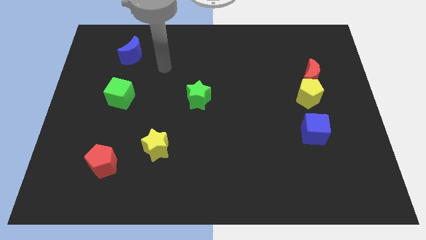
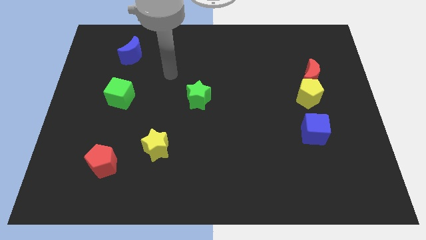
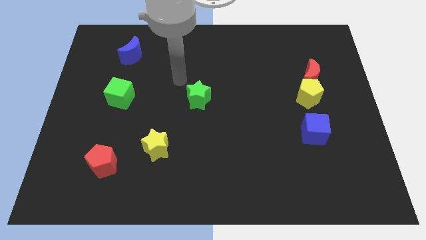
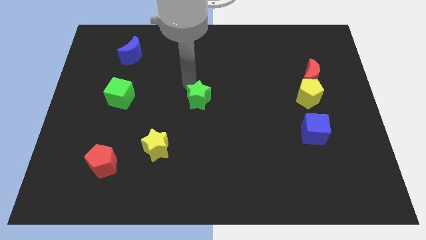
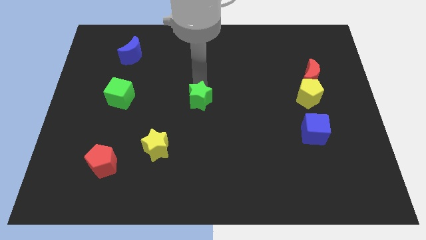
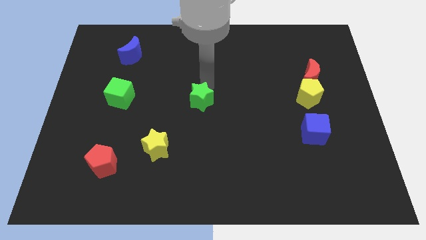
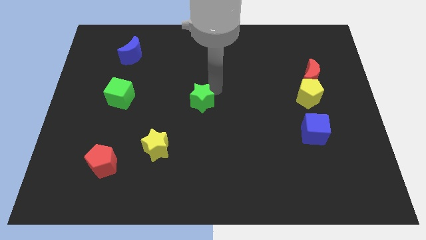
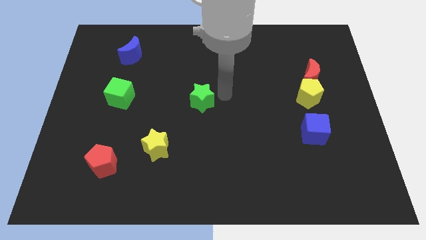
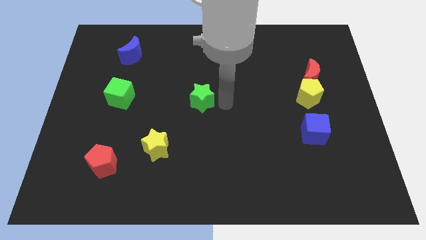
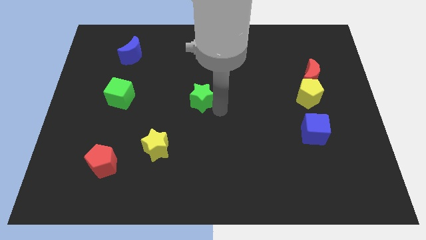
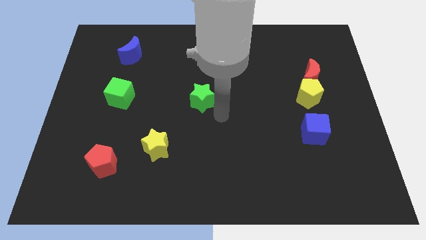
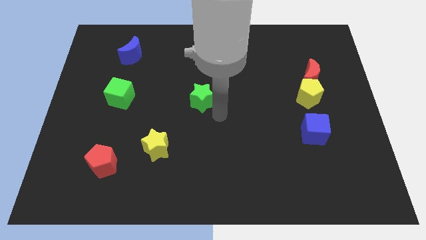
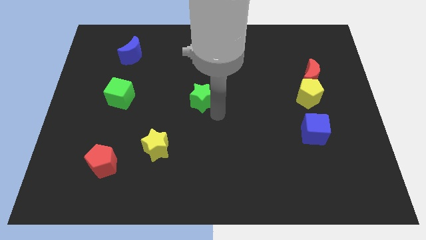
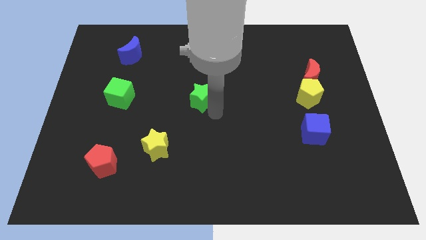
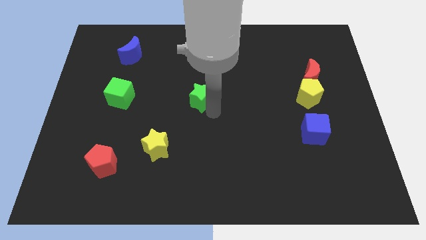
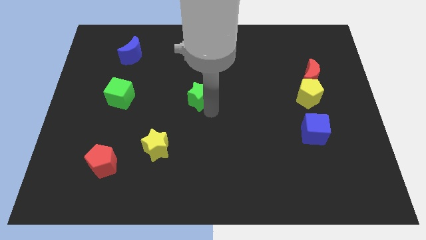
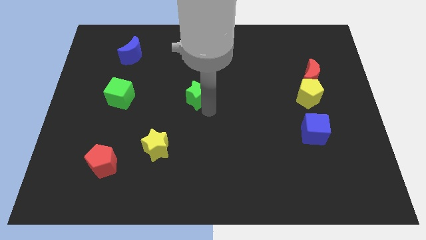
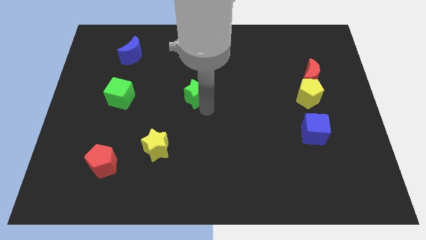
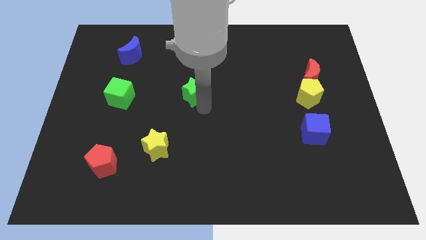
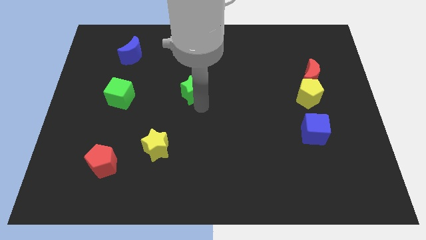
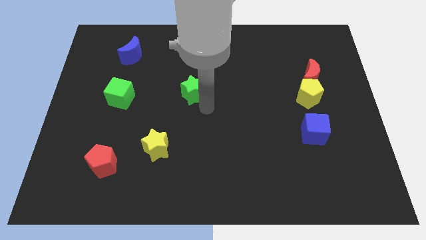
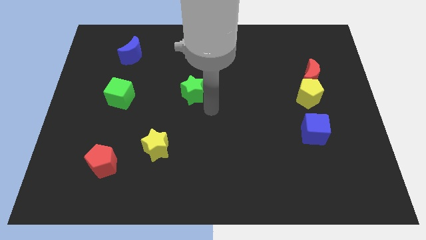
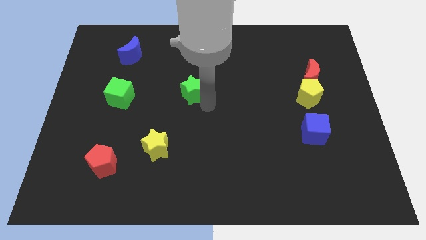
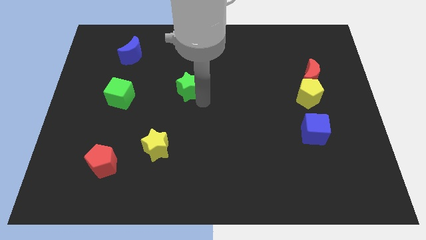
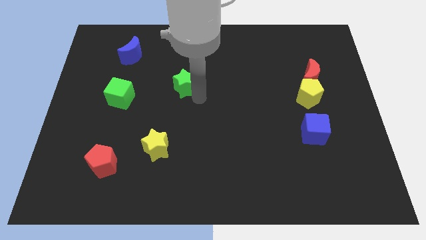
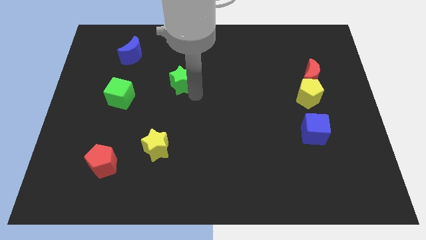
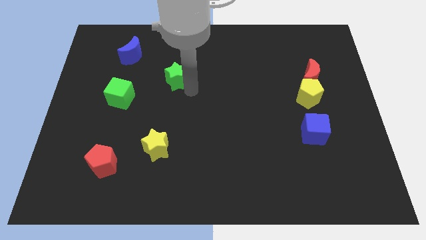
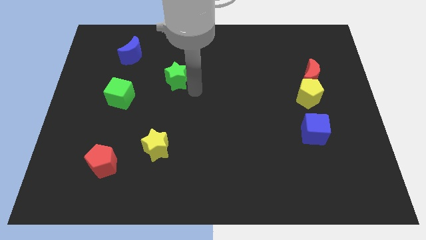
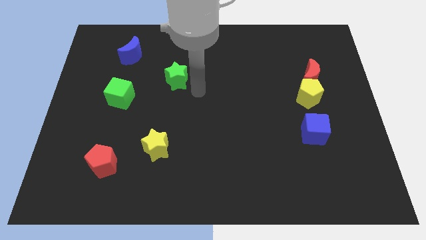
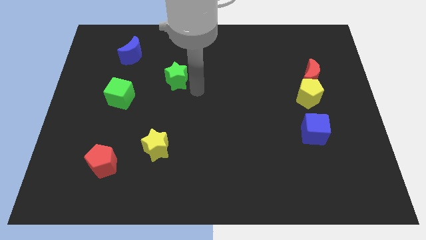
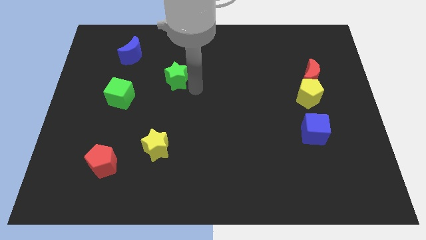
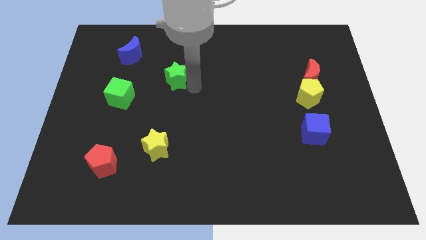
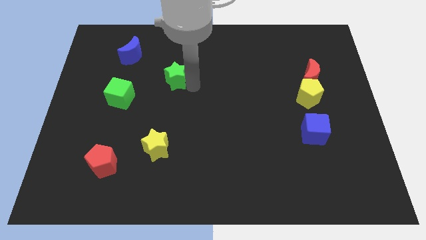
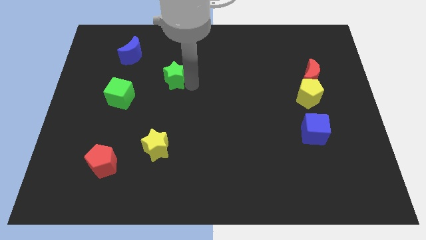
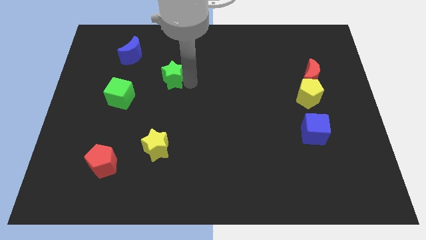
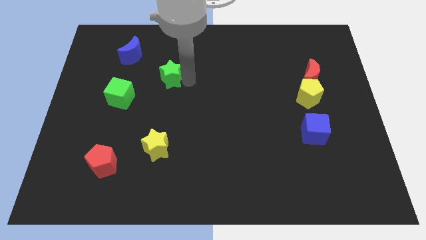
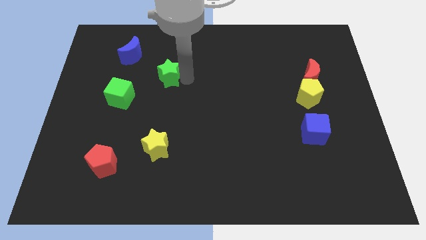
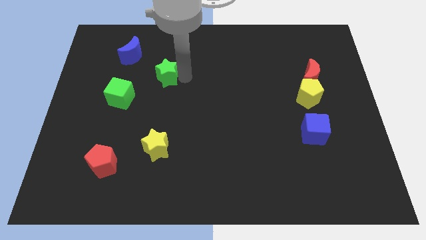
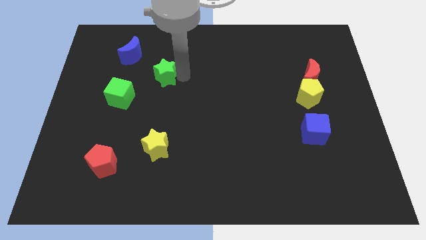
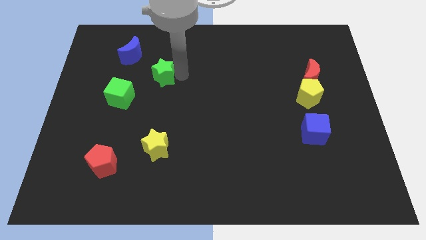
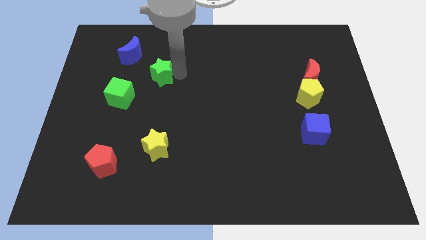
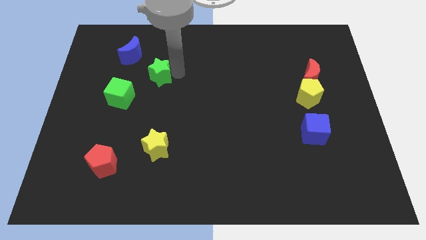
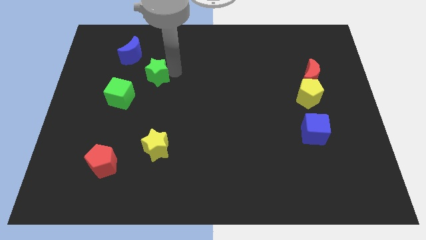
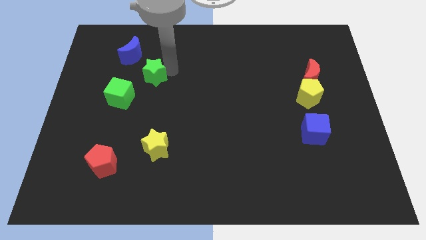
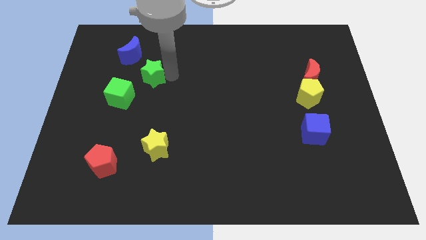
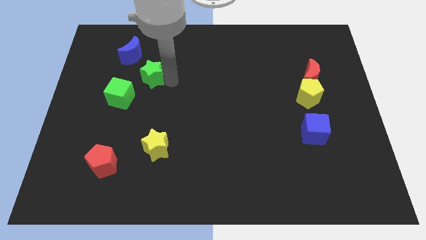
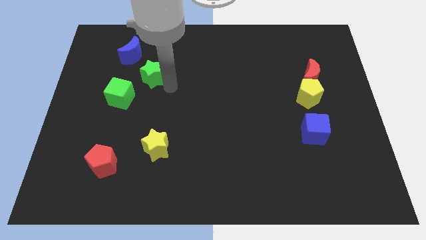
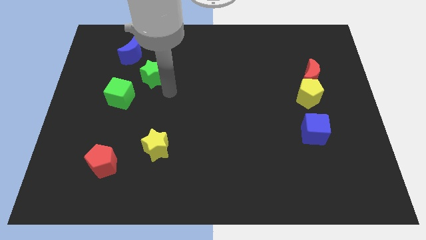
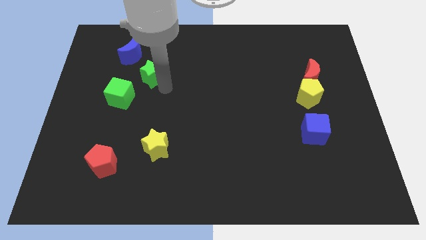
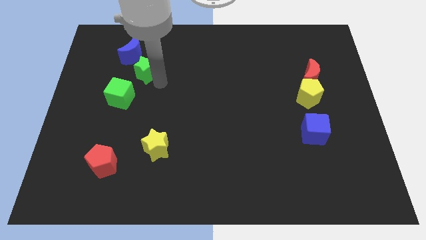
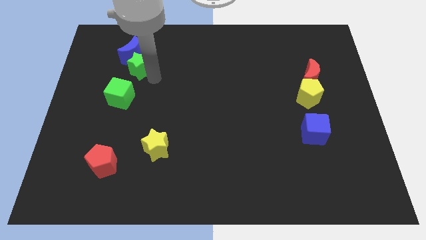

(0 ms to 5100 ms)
move the green star close to the blue moon

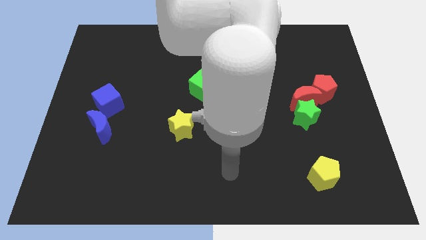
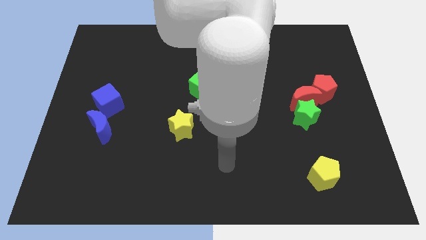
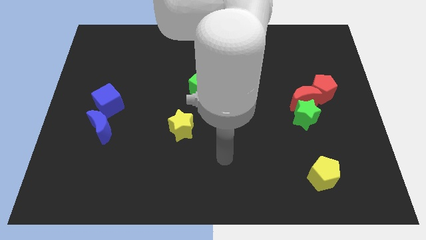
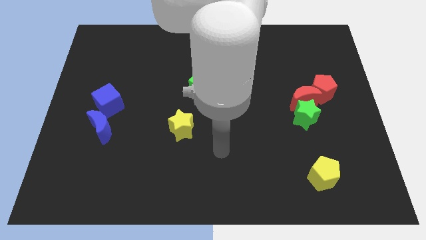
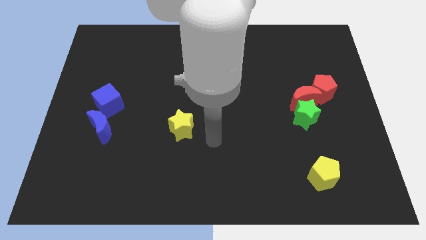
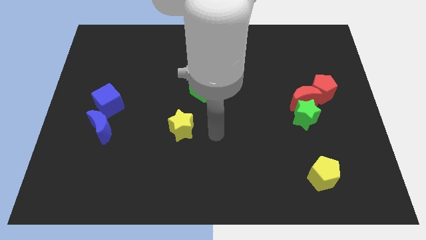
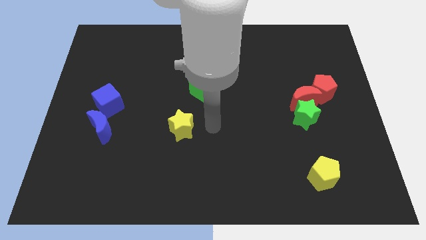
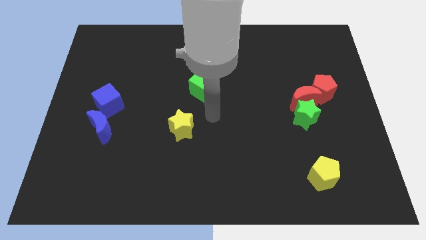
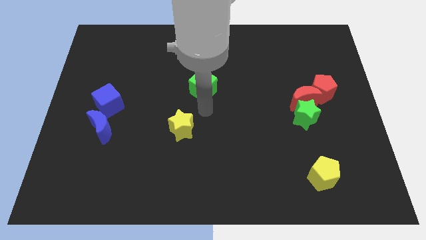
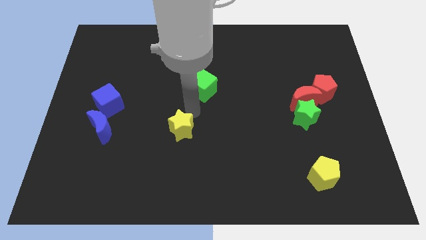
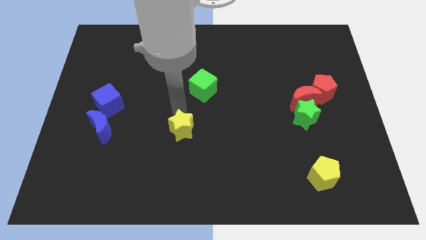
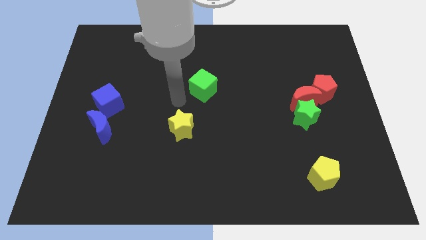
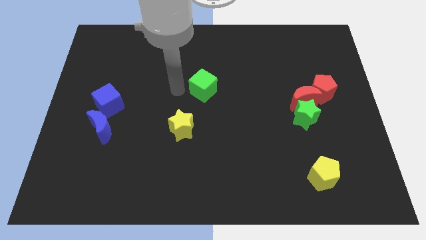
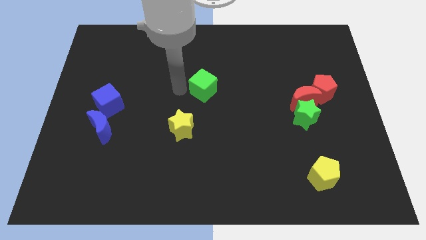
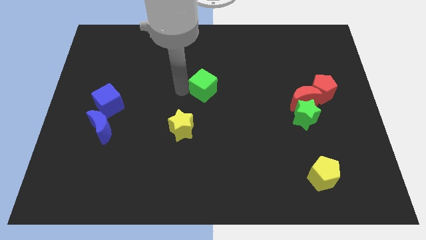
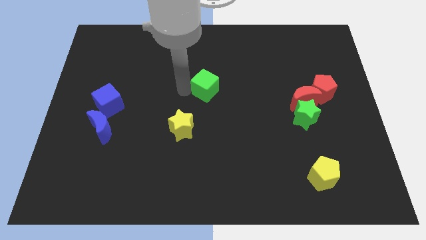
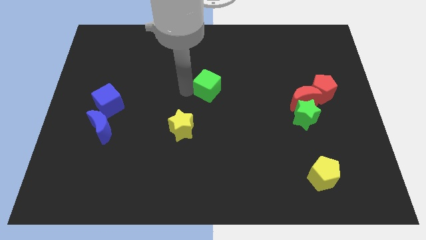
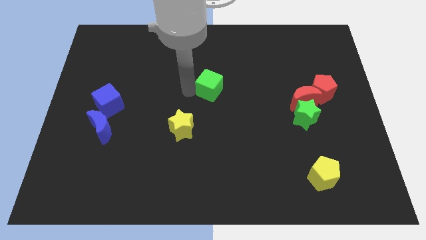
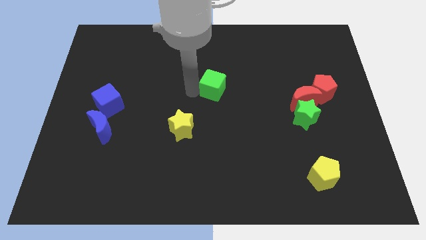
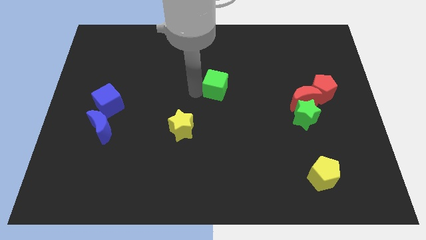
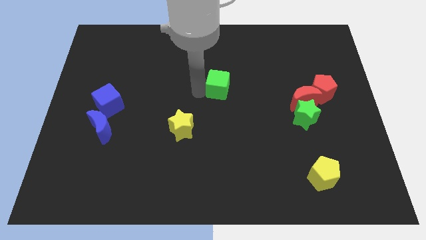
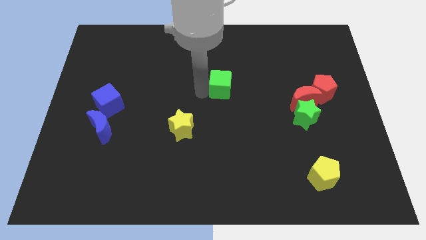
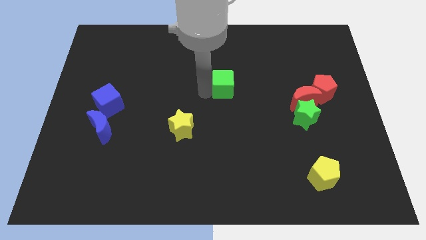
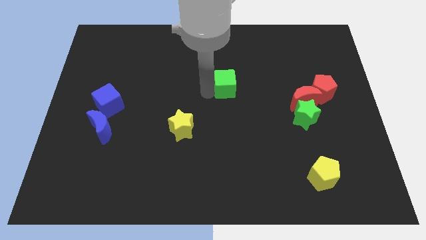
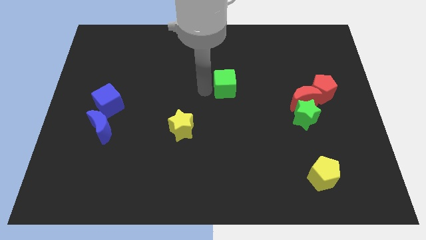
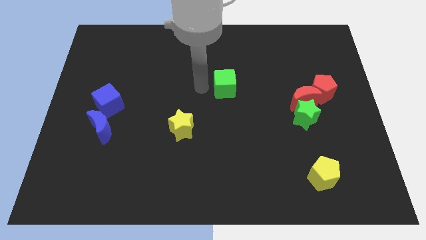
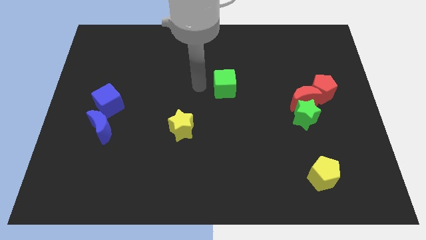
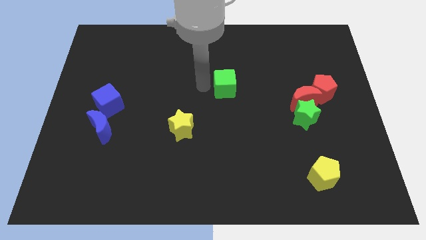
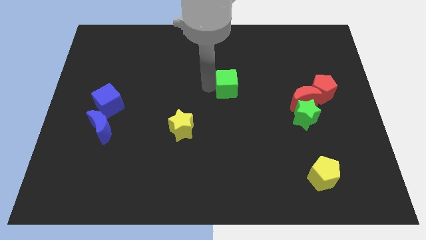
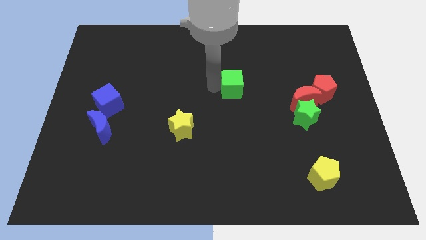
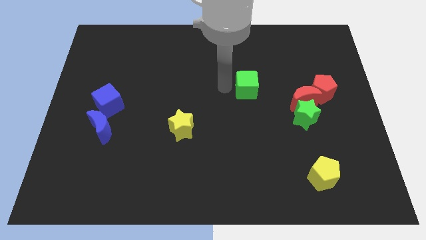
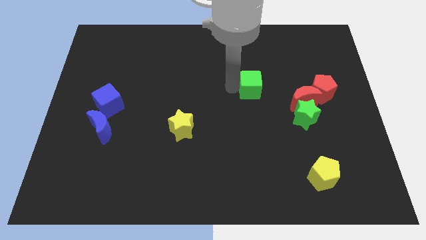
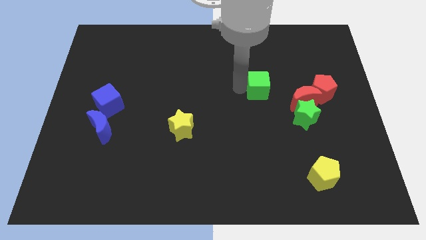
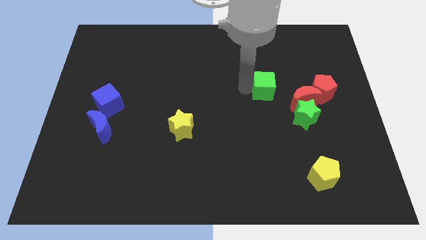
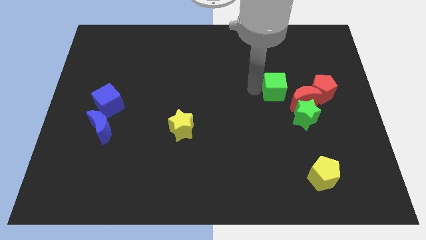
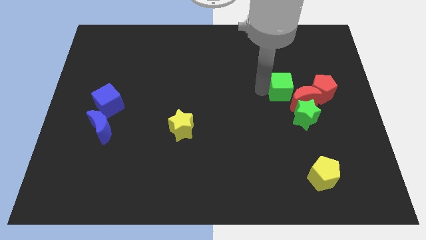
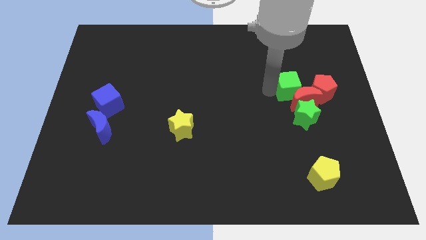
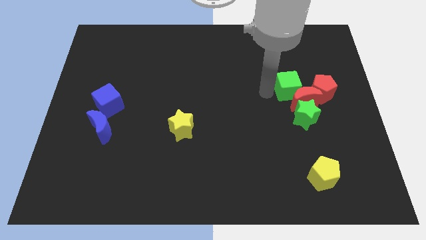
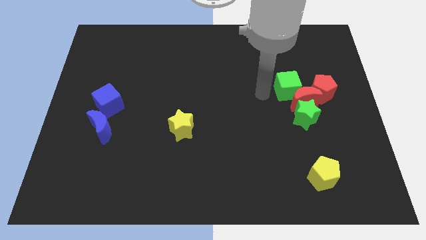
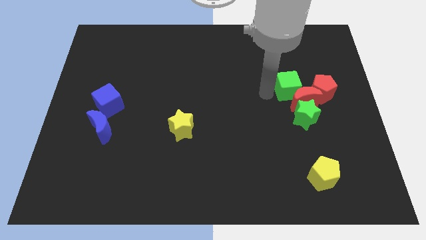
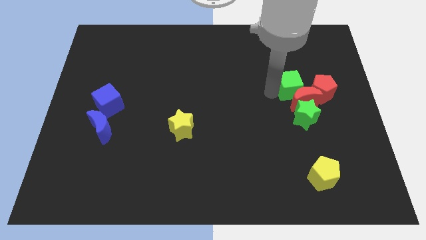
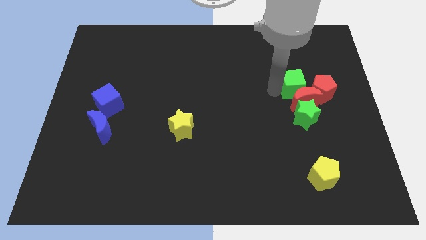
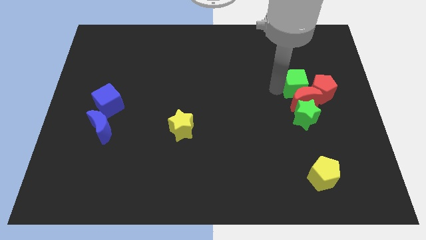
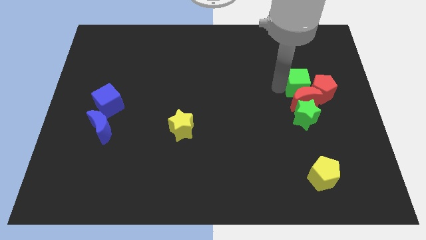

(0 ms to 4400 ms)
push the green cube towards the red pentagon
